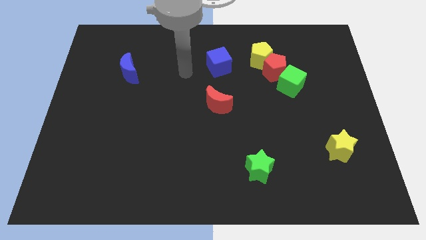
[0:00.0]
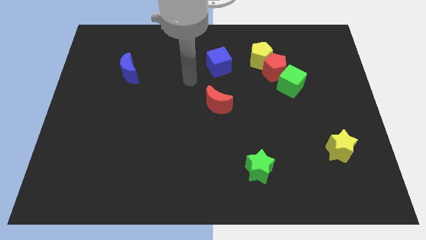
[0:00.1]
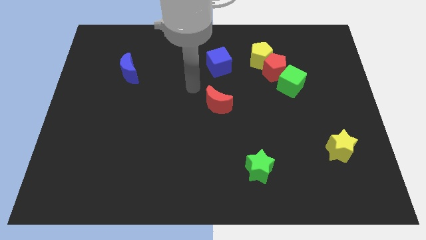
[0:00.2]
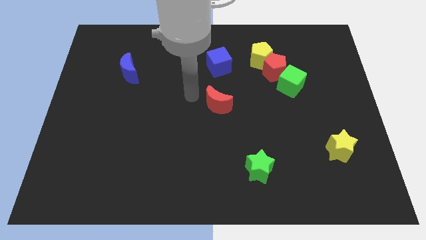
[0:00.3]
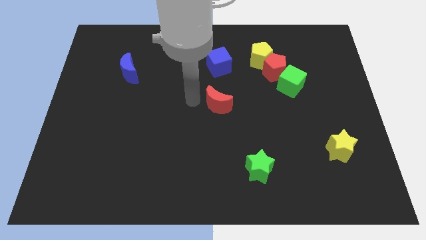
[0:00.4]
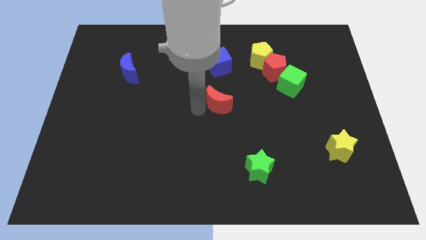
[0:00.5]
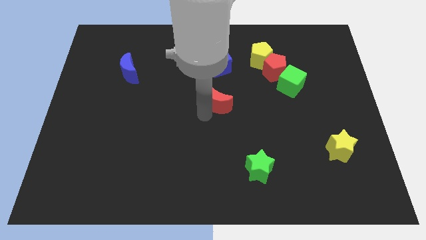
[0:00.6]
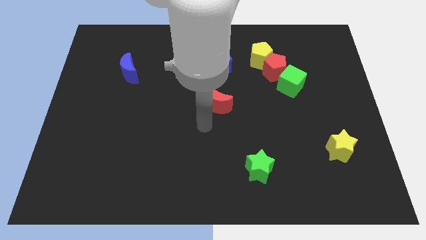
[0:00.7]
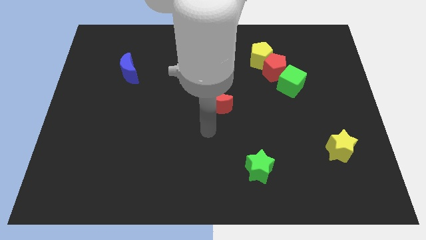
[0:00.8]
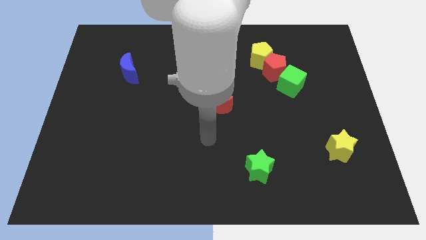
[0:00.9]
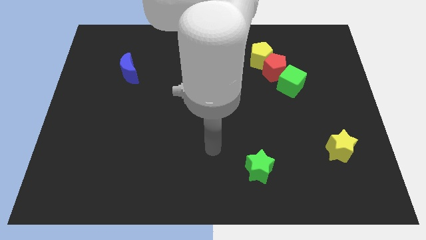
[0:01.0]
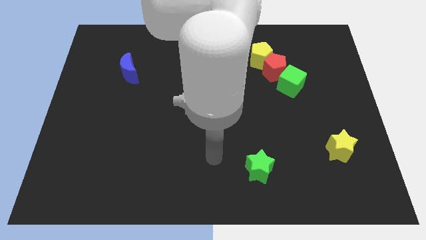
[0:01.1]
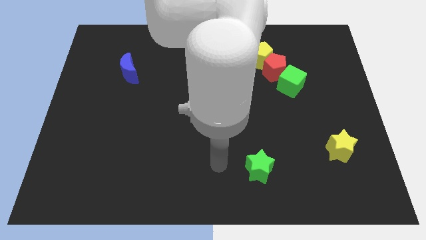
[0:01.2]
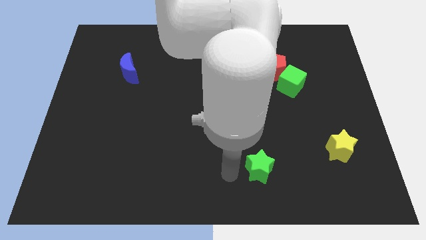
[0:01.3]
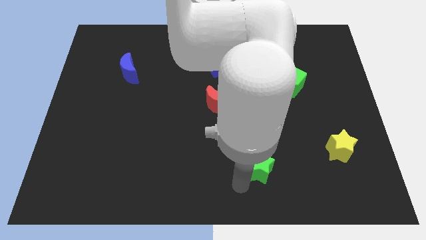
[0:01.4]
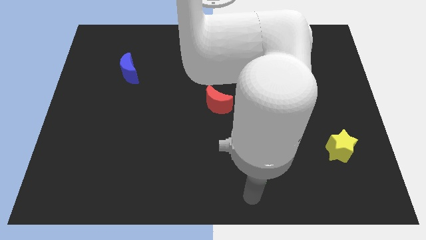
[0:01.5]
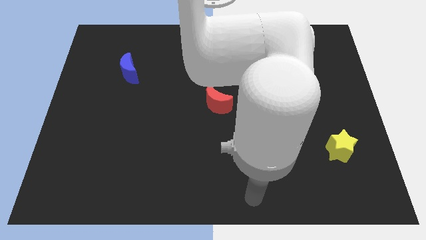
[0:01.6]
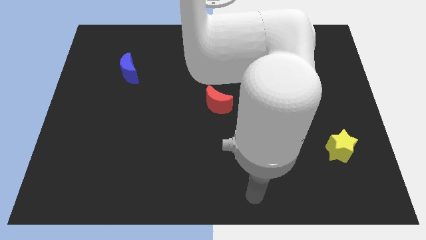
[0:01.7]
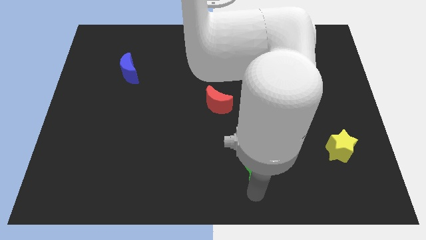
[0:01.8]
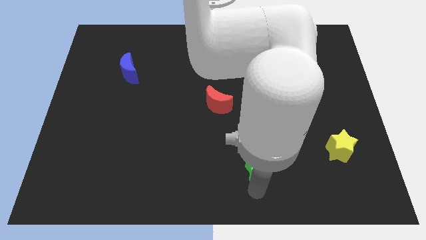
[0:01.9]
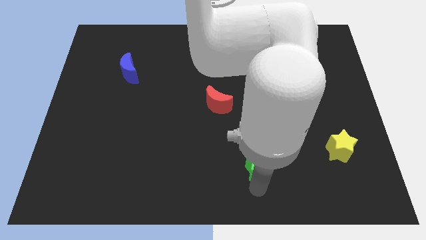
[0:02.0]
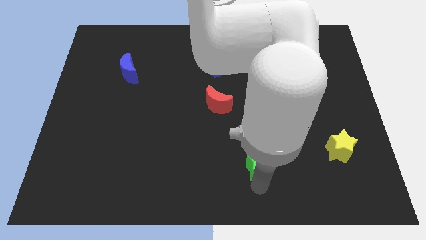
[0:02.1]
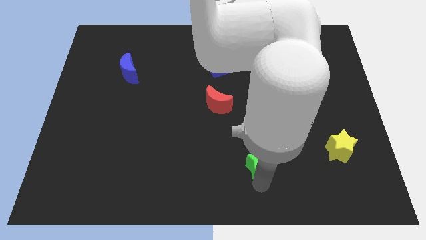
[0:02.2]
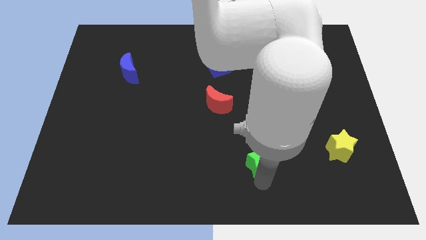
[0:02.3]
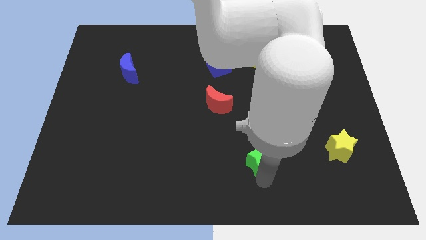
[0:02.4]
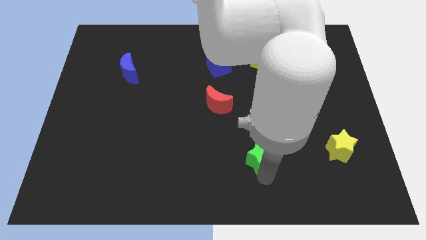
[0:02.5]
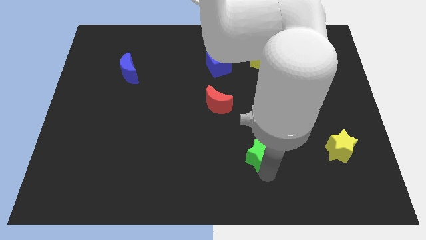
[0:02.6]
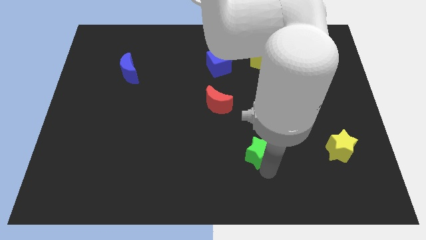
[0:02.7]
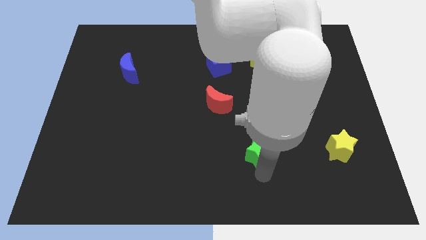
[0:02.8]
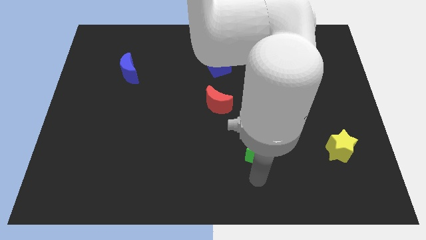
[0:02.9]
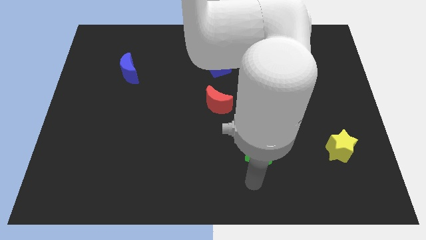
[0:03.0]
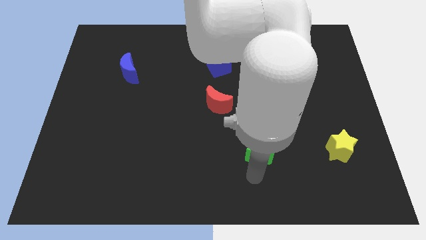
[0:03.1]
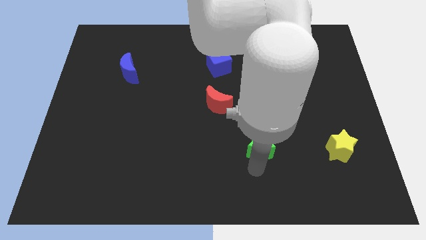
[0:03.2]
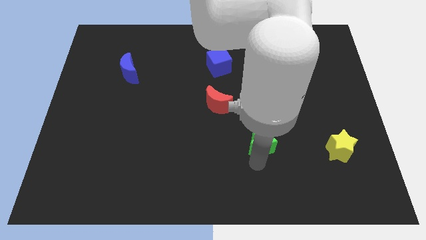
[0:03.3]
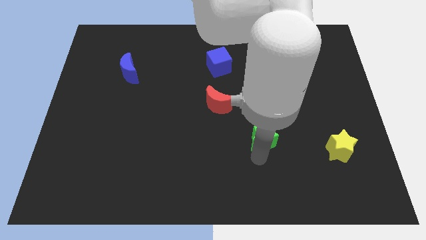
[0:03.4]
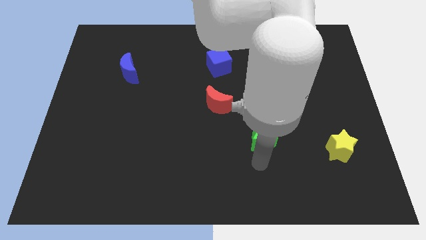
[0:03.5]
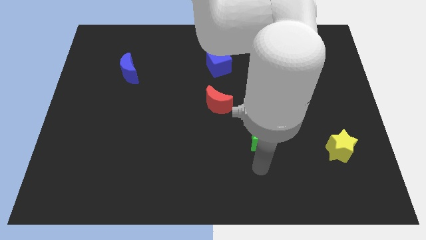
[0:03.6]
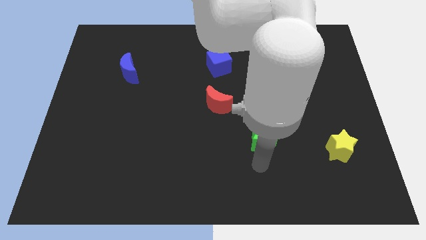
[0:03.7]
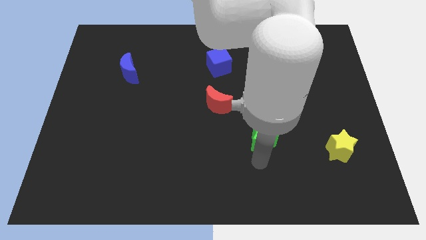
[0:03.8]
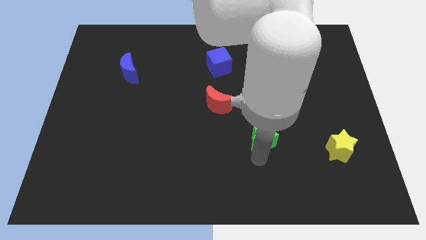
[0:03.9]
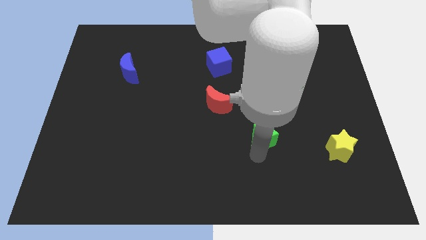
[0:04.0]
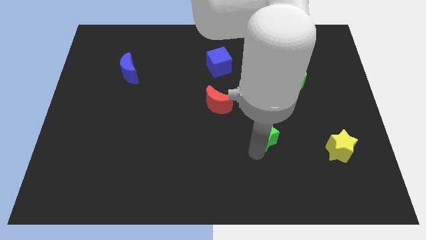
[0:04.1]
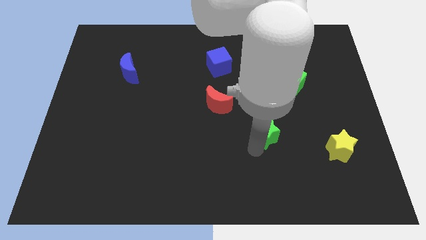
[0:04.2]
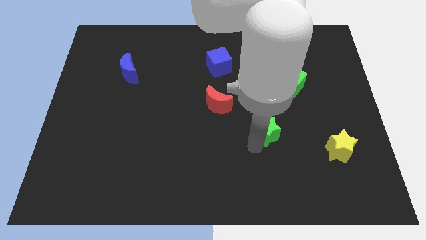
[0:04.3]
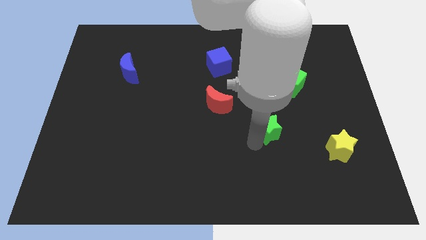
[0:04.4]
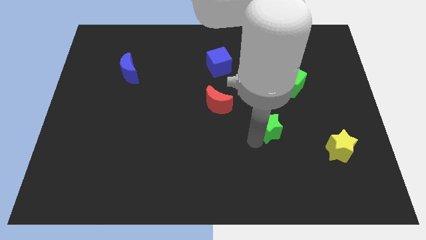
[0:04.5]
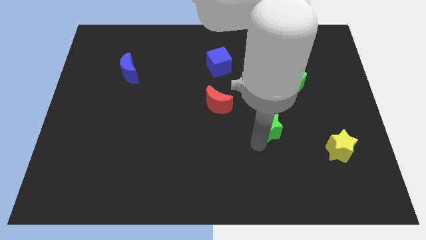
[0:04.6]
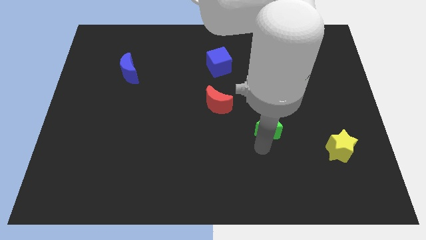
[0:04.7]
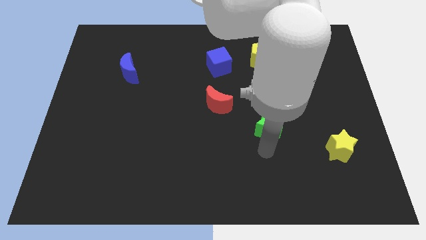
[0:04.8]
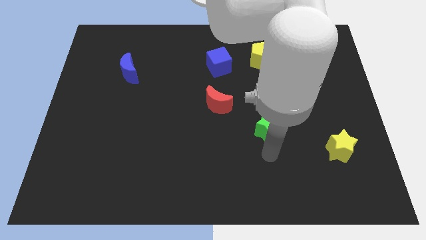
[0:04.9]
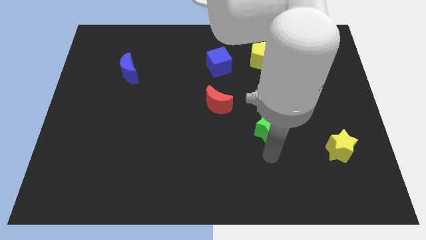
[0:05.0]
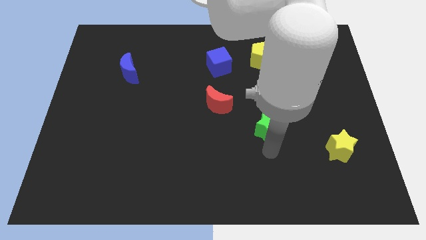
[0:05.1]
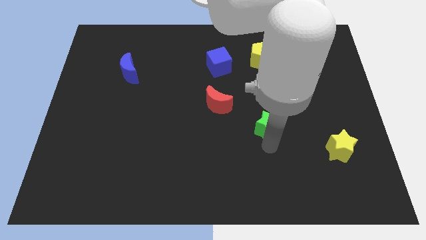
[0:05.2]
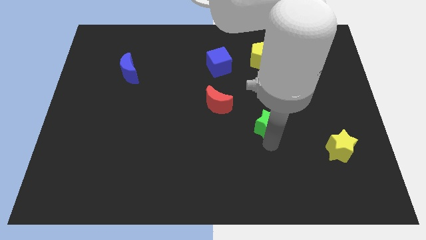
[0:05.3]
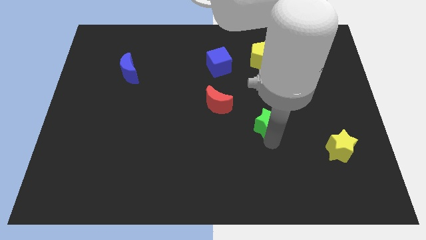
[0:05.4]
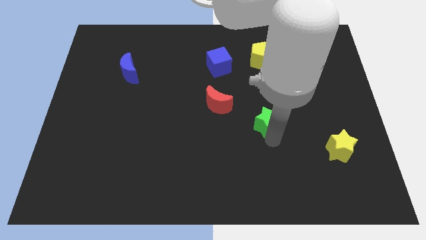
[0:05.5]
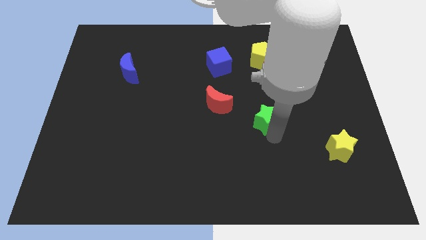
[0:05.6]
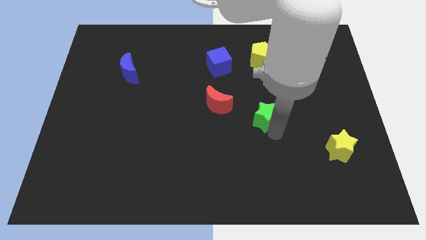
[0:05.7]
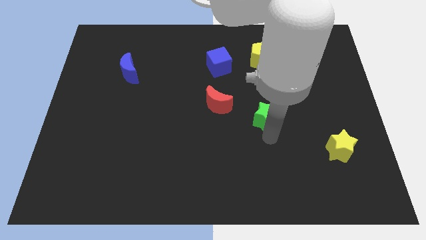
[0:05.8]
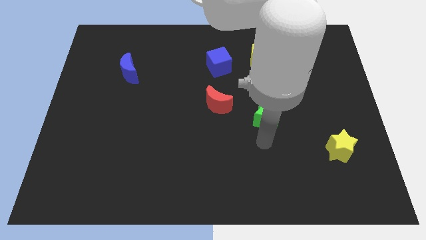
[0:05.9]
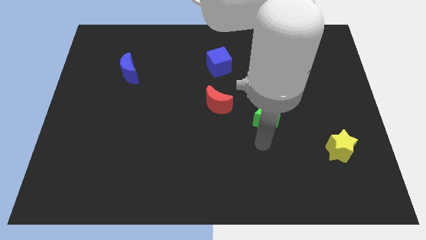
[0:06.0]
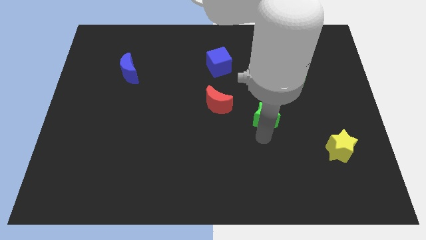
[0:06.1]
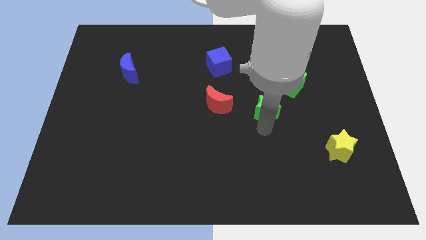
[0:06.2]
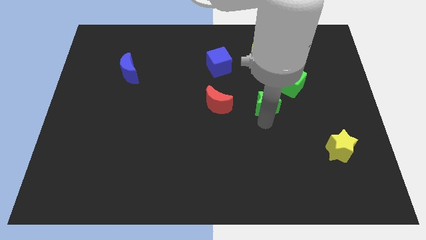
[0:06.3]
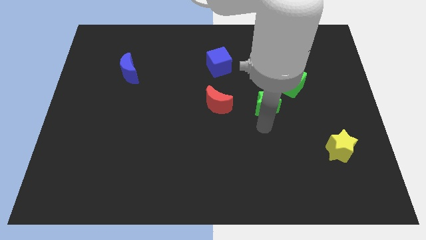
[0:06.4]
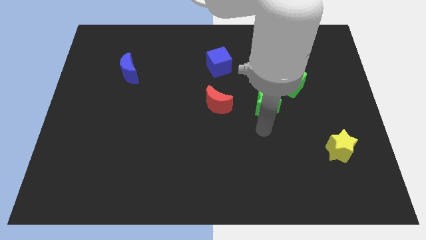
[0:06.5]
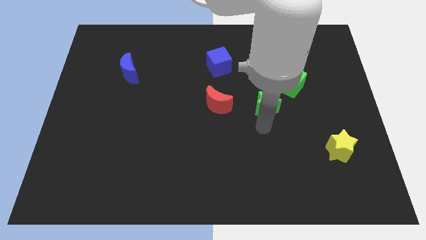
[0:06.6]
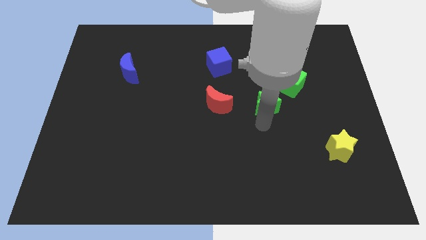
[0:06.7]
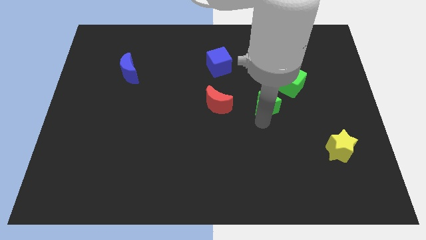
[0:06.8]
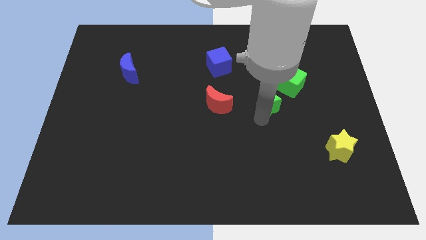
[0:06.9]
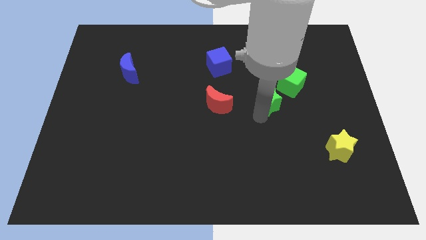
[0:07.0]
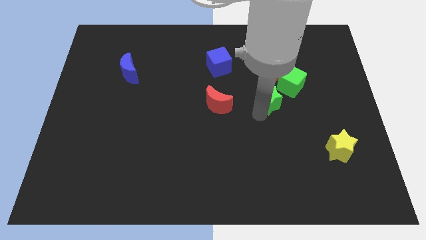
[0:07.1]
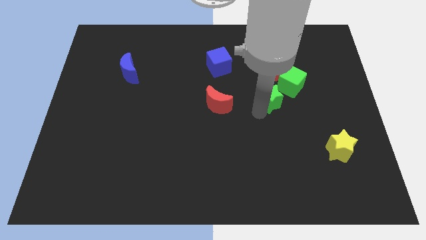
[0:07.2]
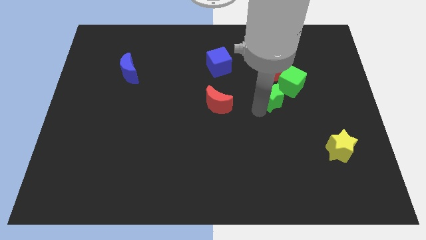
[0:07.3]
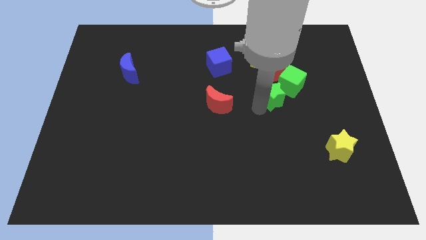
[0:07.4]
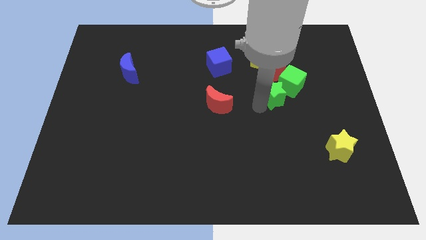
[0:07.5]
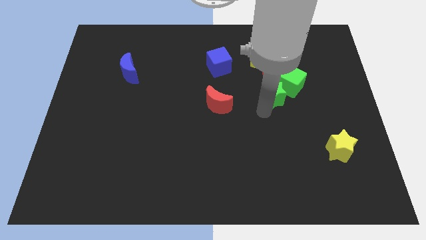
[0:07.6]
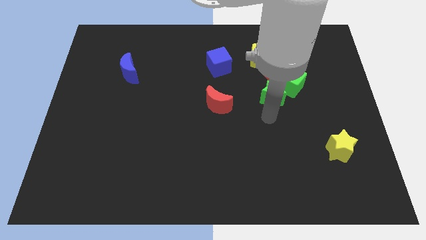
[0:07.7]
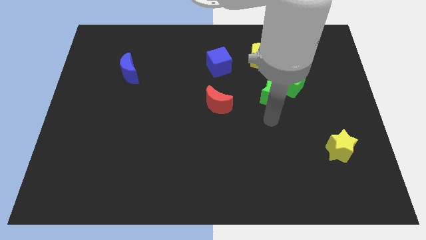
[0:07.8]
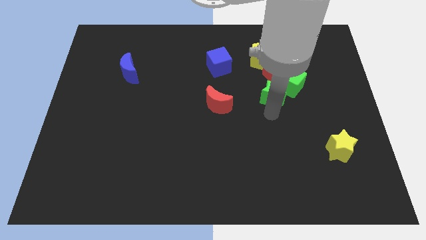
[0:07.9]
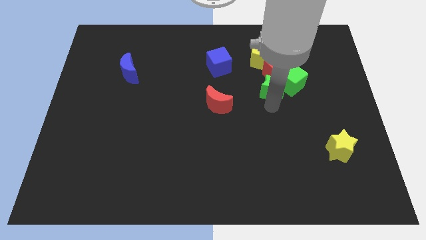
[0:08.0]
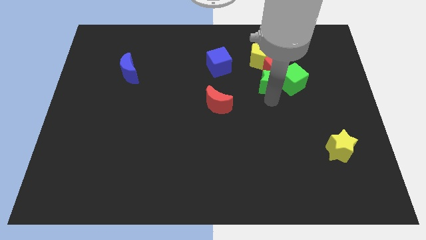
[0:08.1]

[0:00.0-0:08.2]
put the green star towards the red pentagon
